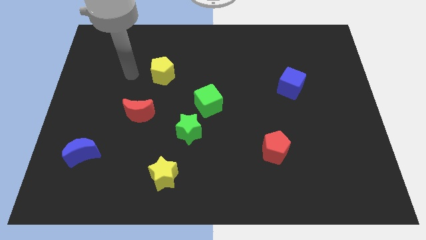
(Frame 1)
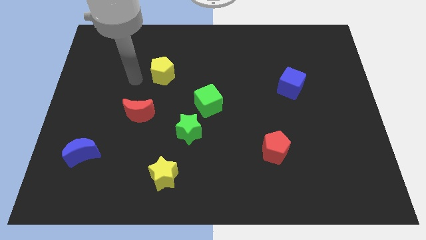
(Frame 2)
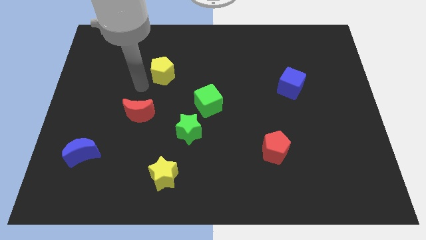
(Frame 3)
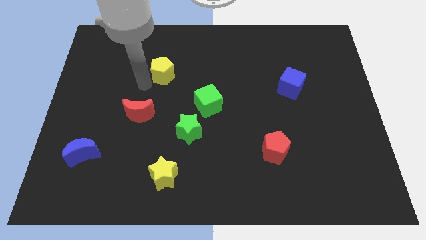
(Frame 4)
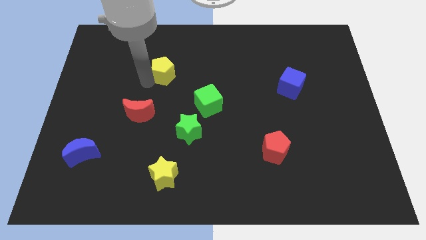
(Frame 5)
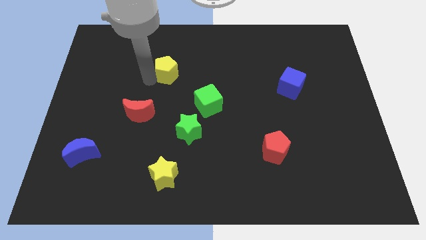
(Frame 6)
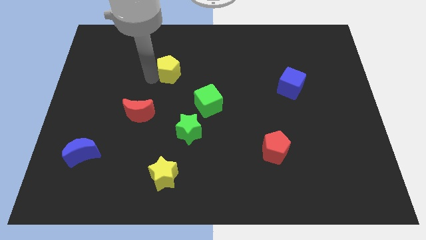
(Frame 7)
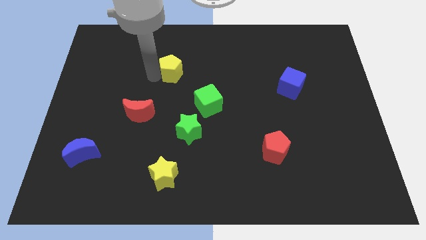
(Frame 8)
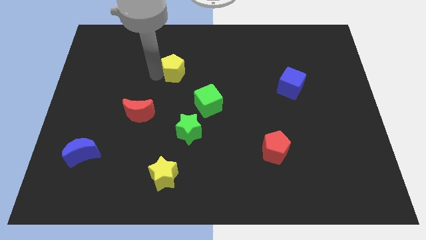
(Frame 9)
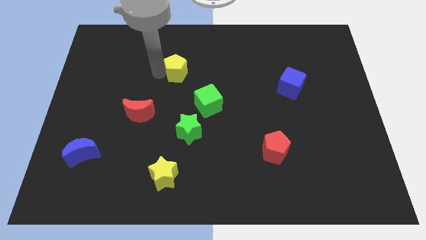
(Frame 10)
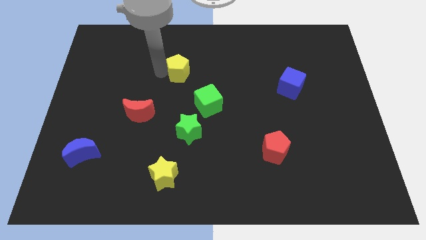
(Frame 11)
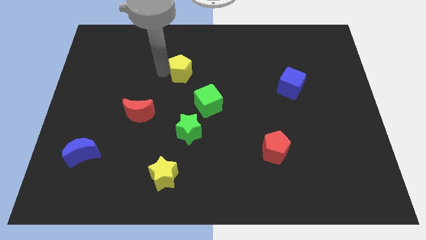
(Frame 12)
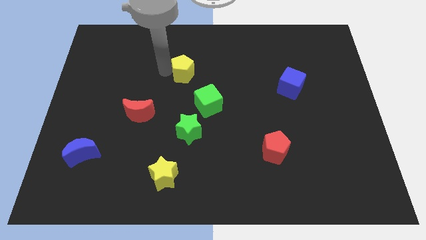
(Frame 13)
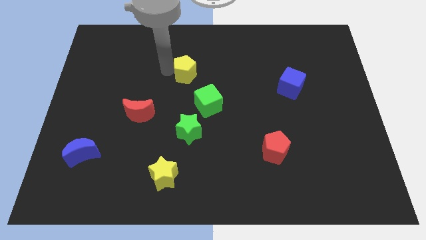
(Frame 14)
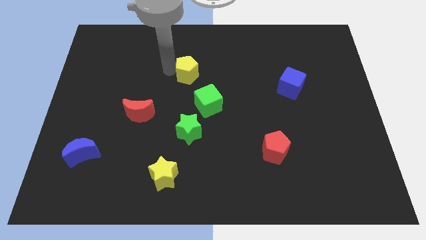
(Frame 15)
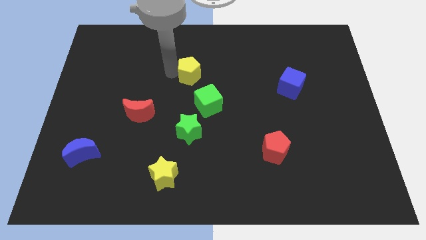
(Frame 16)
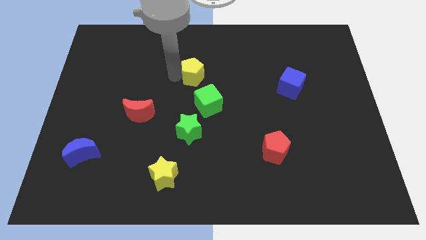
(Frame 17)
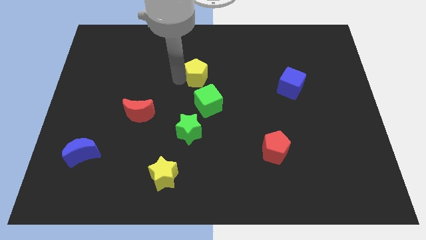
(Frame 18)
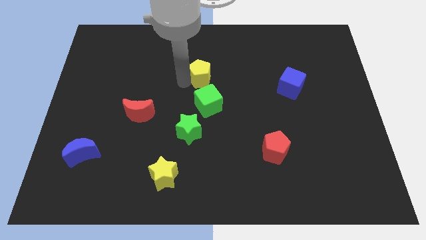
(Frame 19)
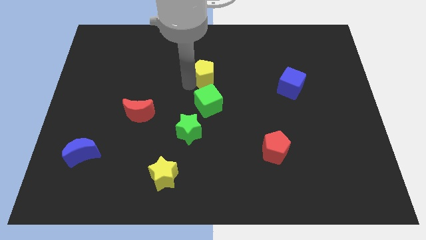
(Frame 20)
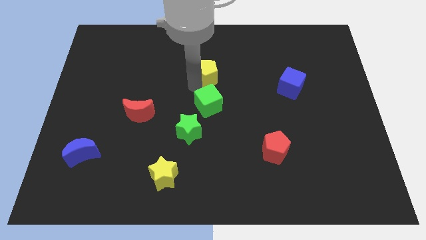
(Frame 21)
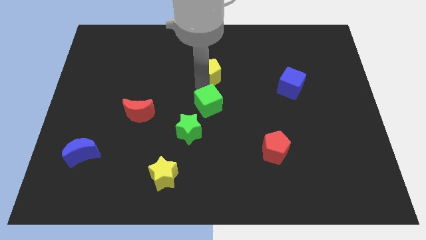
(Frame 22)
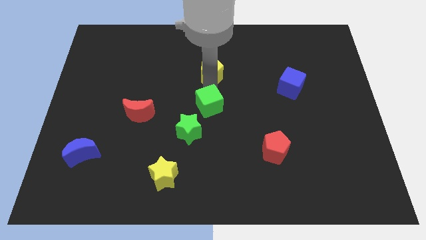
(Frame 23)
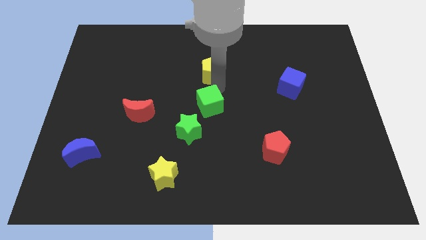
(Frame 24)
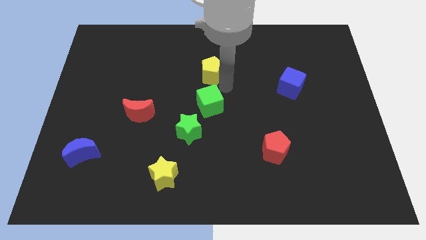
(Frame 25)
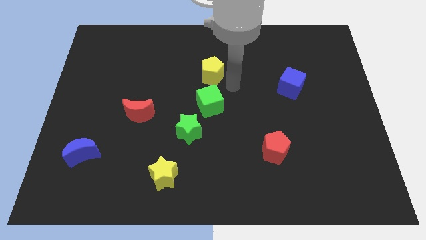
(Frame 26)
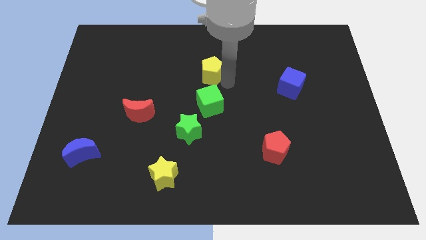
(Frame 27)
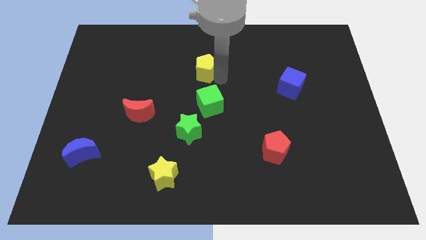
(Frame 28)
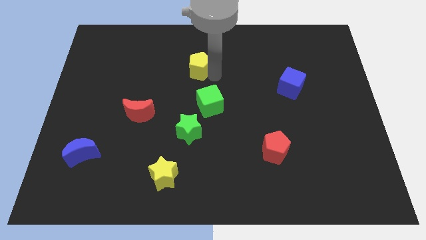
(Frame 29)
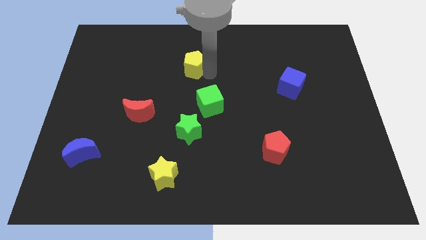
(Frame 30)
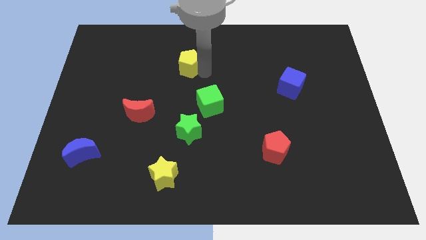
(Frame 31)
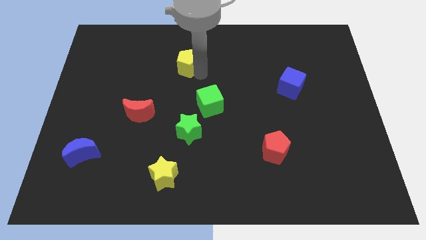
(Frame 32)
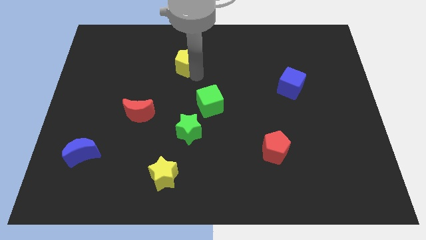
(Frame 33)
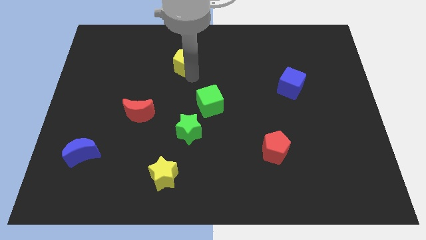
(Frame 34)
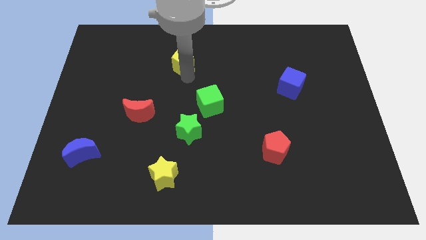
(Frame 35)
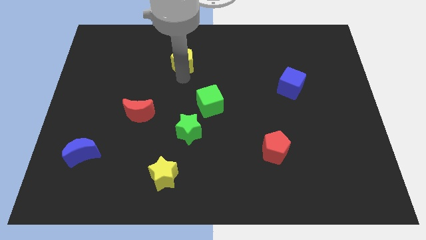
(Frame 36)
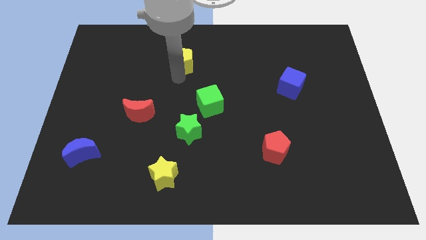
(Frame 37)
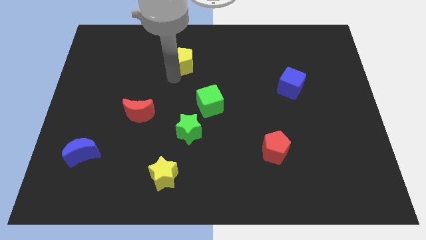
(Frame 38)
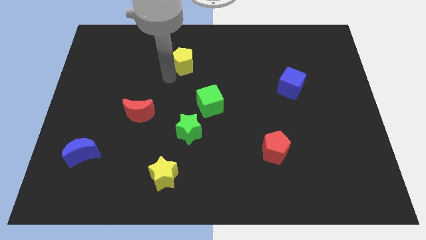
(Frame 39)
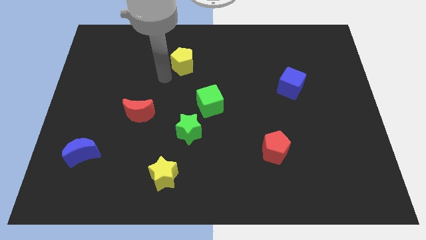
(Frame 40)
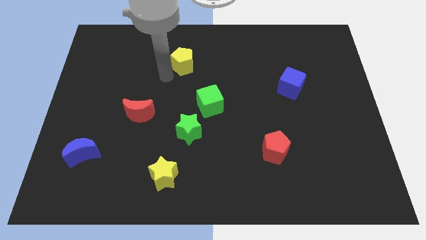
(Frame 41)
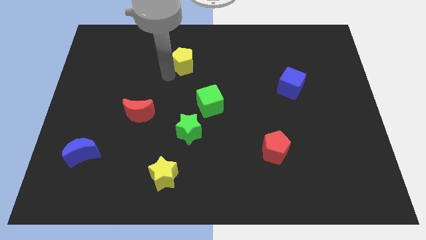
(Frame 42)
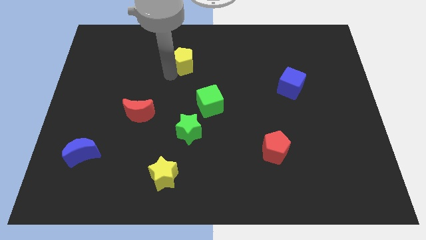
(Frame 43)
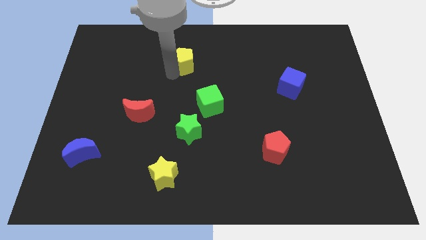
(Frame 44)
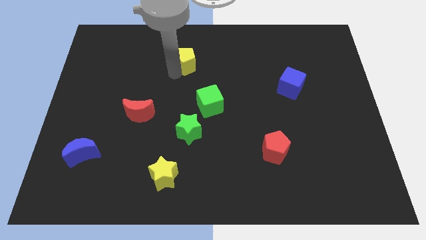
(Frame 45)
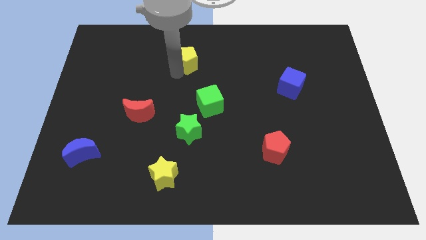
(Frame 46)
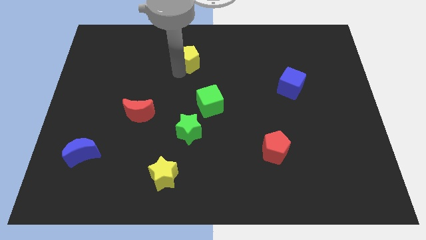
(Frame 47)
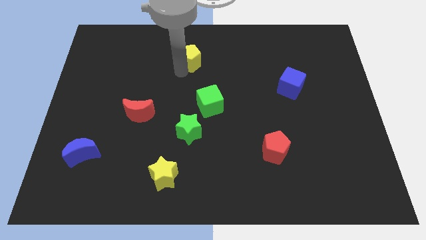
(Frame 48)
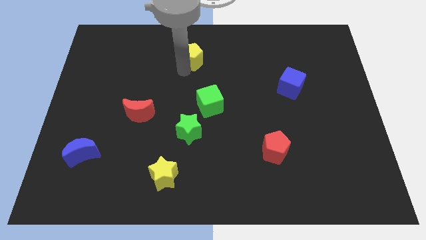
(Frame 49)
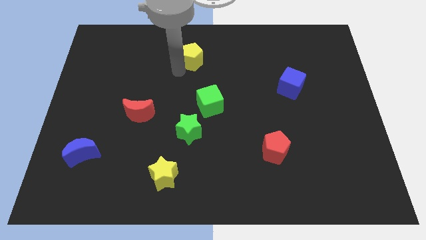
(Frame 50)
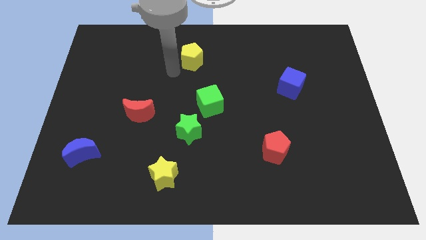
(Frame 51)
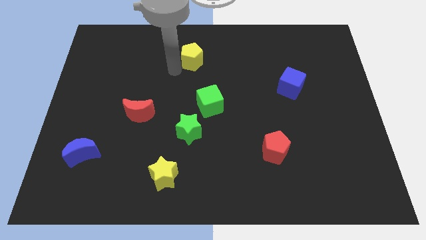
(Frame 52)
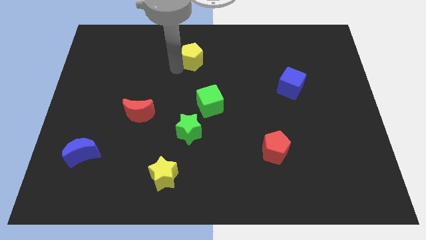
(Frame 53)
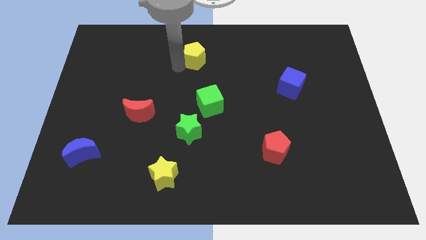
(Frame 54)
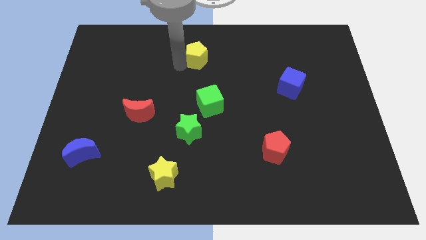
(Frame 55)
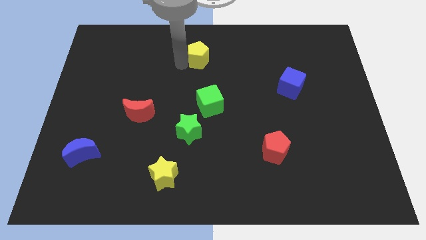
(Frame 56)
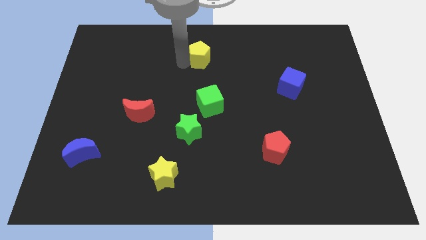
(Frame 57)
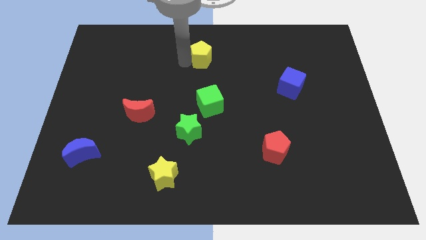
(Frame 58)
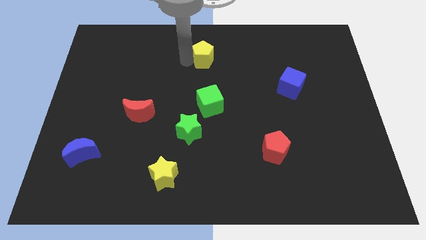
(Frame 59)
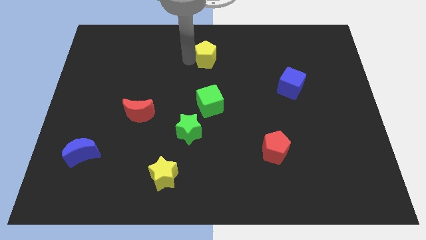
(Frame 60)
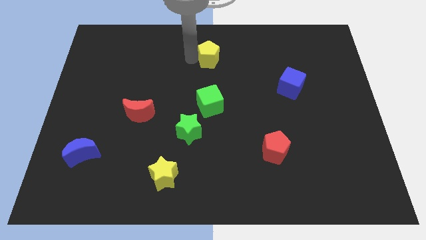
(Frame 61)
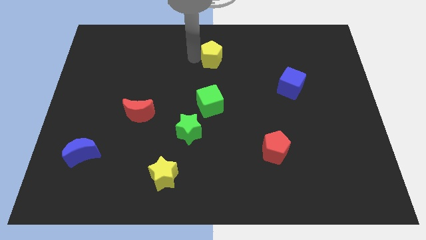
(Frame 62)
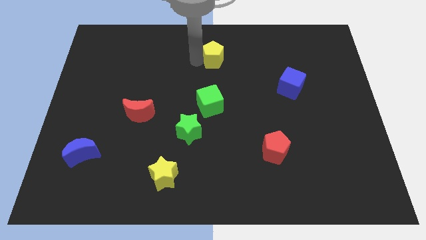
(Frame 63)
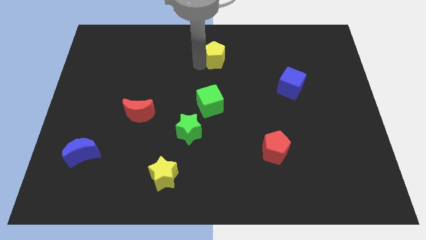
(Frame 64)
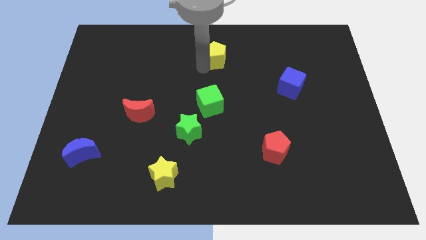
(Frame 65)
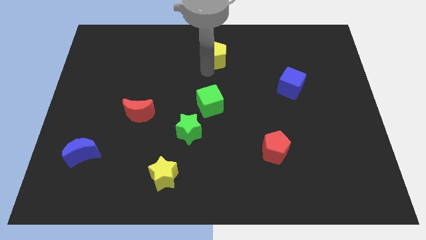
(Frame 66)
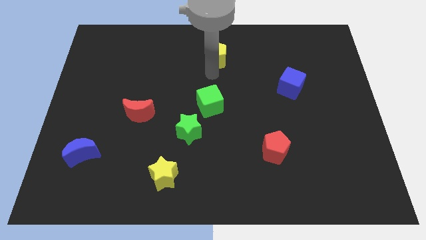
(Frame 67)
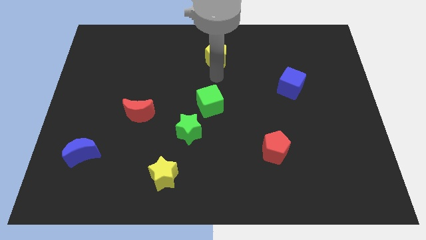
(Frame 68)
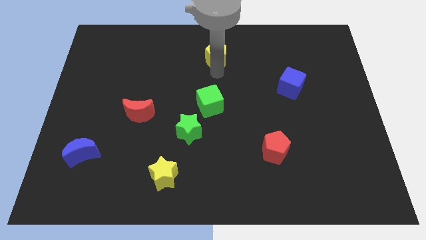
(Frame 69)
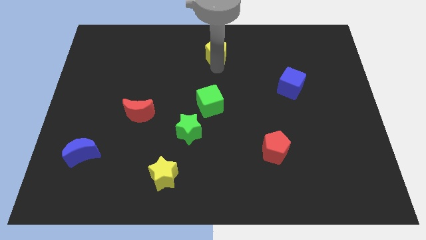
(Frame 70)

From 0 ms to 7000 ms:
move the yellow pentagon to the top
